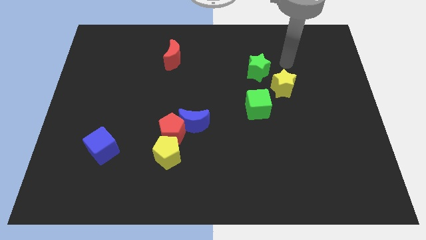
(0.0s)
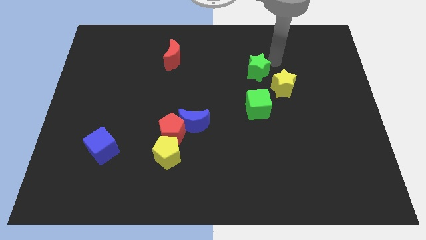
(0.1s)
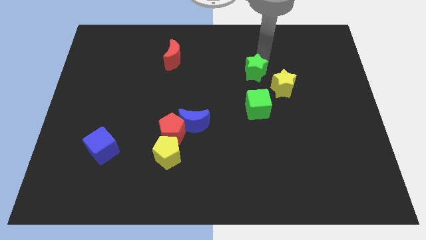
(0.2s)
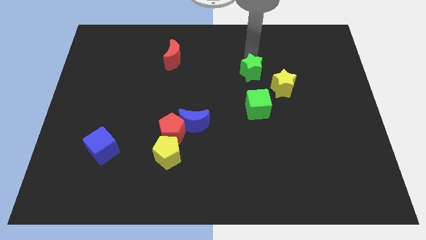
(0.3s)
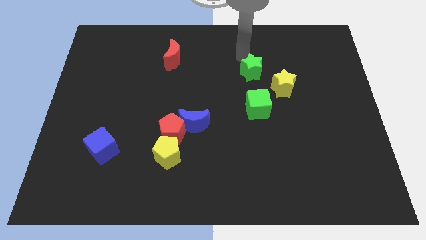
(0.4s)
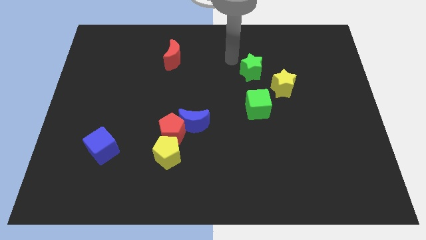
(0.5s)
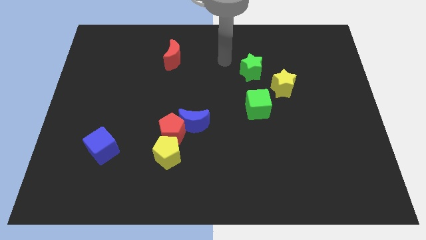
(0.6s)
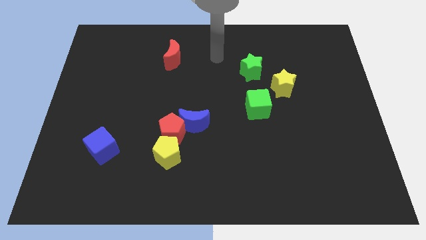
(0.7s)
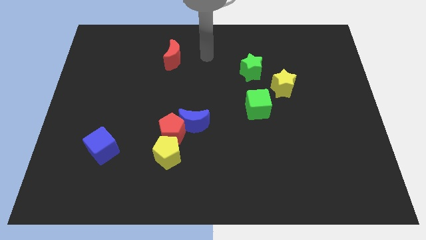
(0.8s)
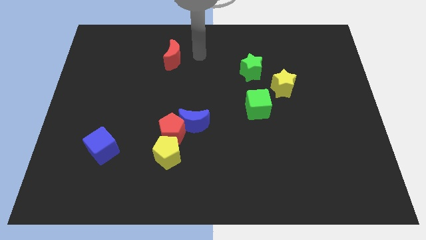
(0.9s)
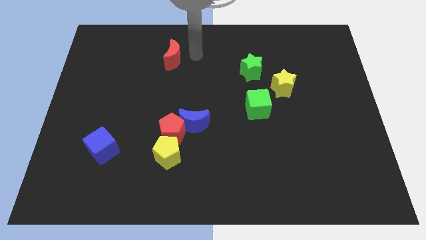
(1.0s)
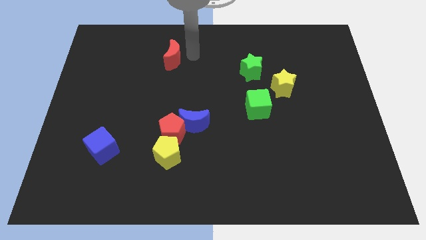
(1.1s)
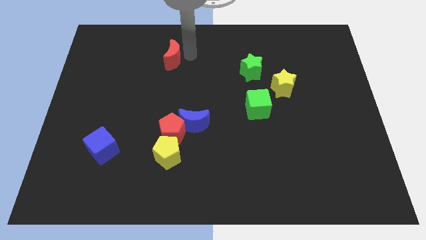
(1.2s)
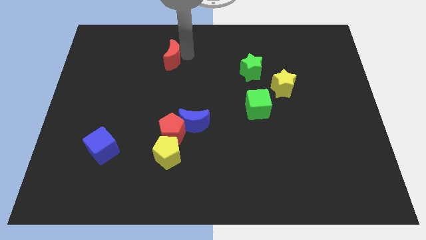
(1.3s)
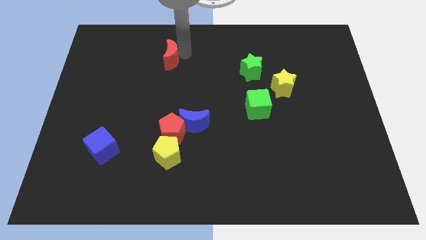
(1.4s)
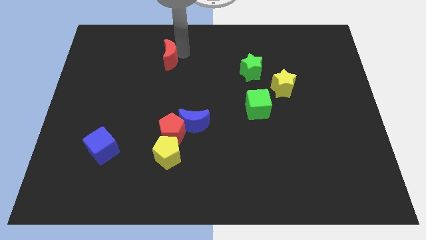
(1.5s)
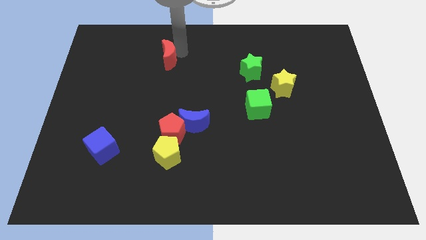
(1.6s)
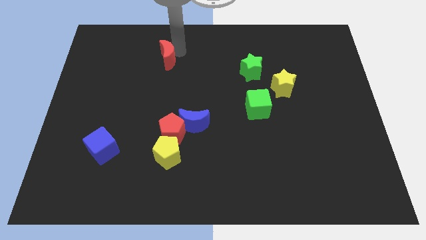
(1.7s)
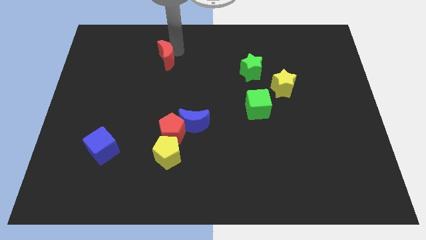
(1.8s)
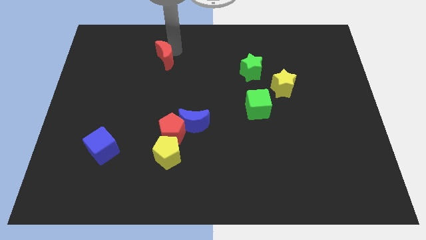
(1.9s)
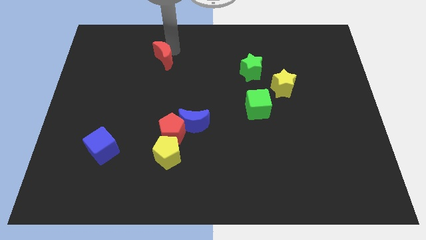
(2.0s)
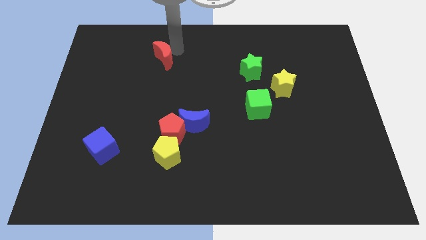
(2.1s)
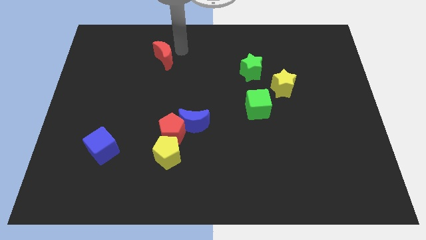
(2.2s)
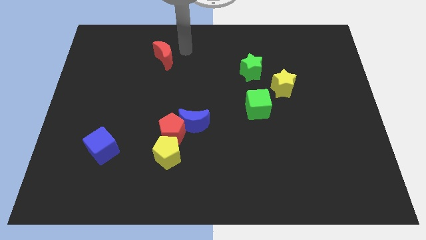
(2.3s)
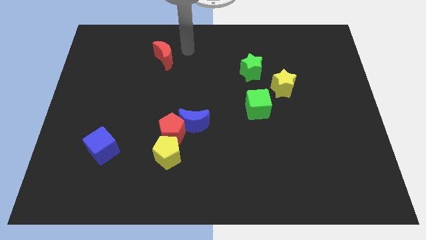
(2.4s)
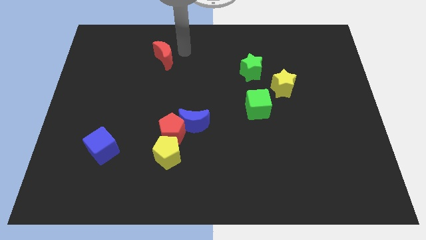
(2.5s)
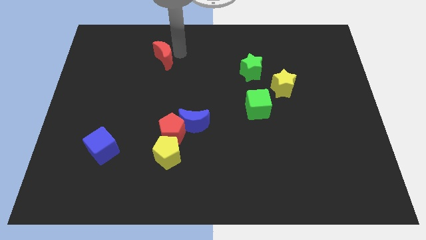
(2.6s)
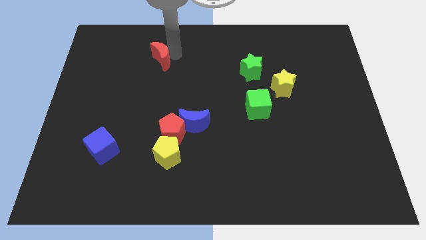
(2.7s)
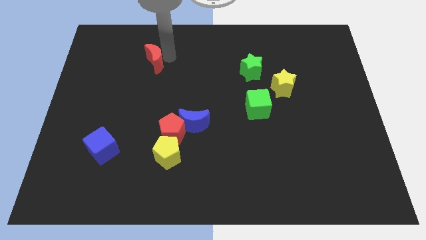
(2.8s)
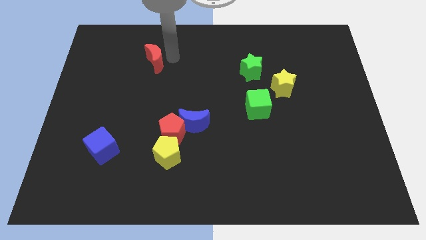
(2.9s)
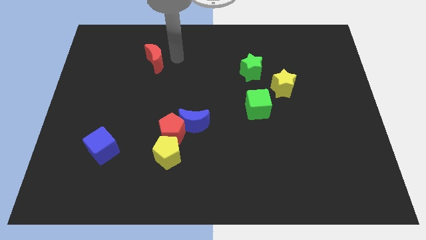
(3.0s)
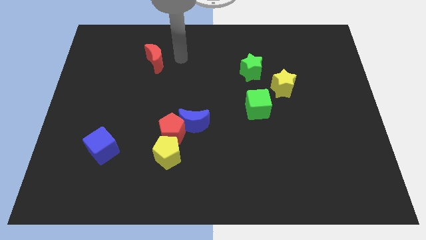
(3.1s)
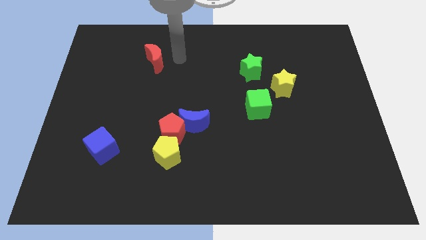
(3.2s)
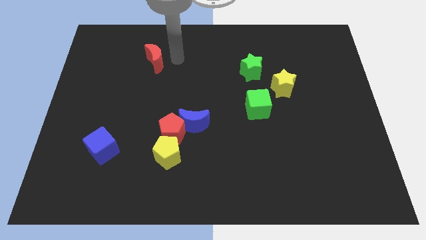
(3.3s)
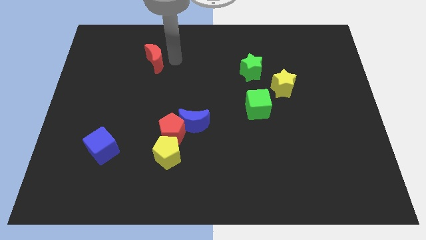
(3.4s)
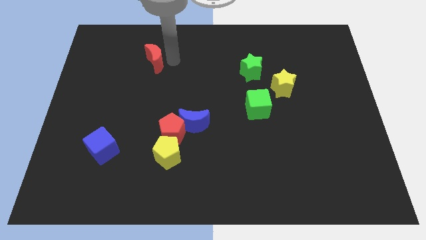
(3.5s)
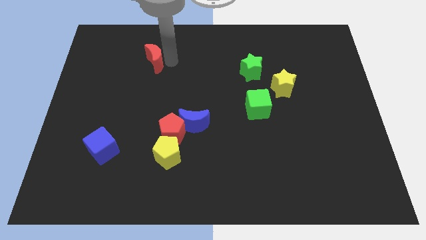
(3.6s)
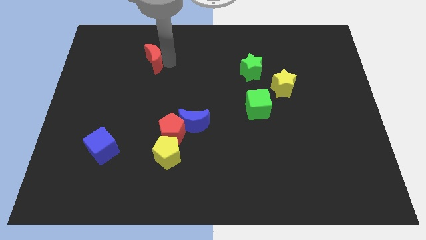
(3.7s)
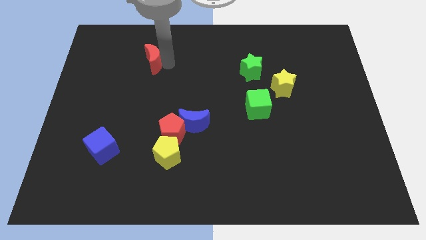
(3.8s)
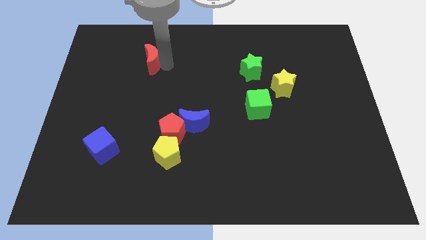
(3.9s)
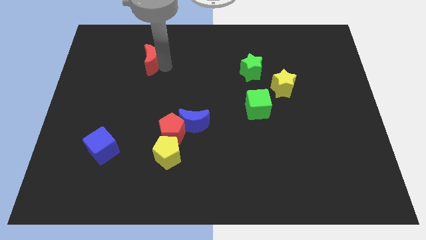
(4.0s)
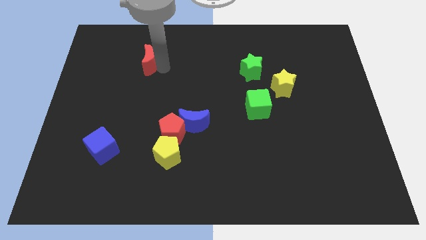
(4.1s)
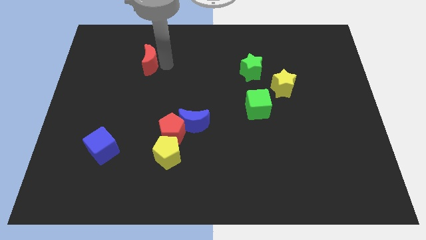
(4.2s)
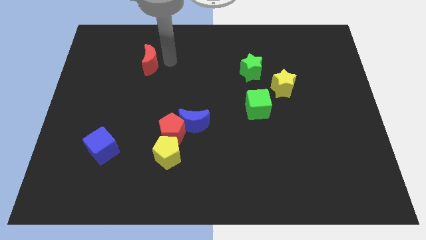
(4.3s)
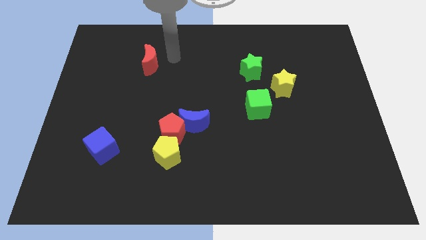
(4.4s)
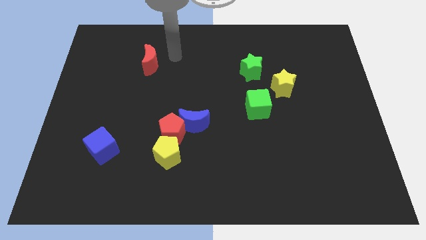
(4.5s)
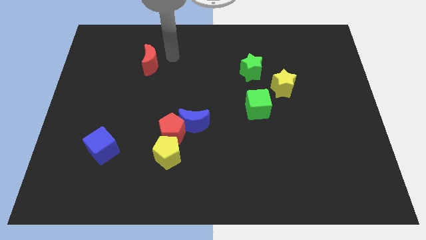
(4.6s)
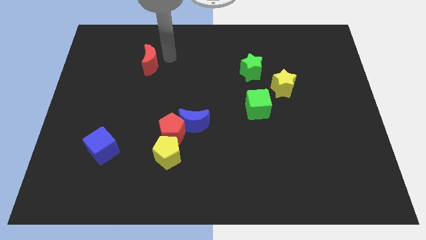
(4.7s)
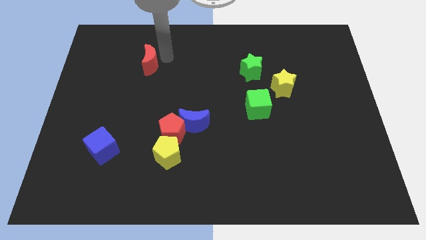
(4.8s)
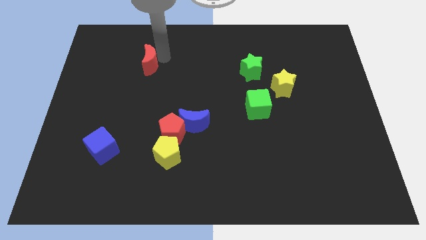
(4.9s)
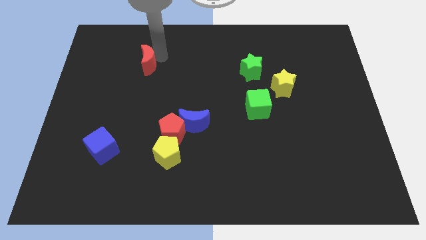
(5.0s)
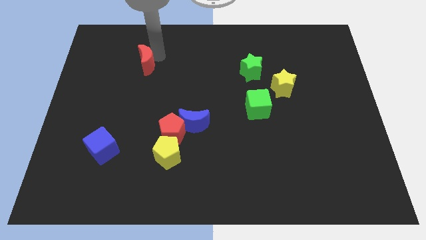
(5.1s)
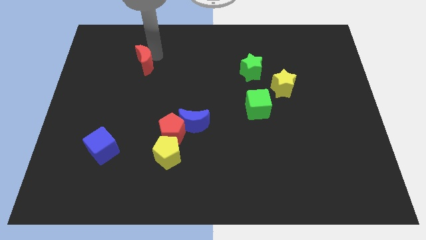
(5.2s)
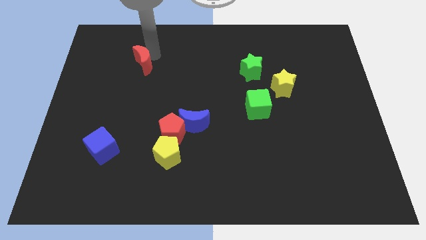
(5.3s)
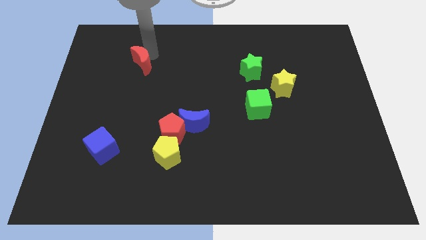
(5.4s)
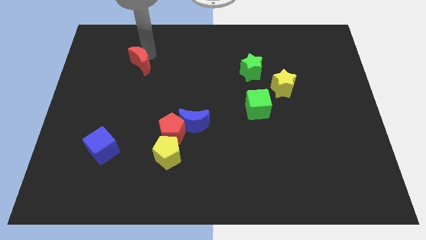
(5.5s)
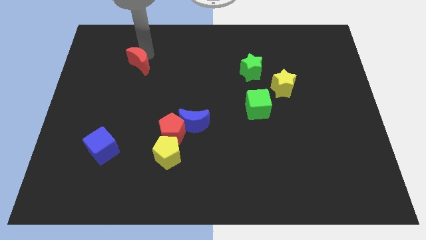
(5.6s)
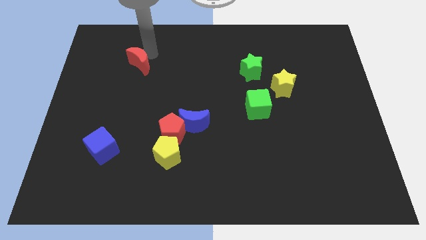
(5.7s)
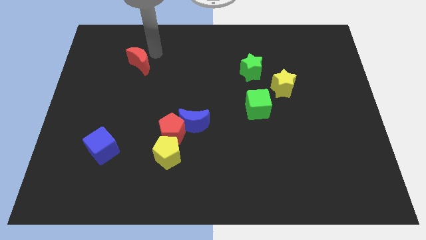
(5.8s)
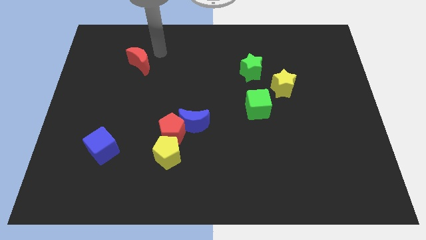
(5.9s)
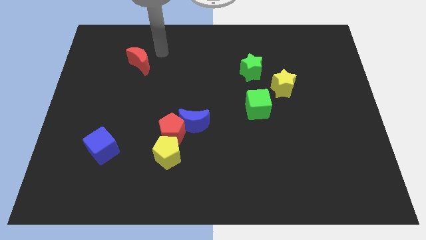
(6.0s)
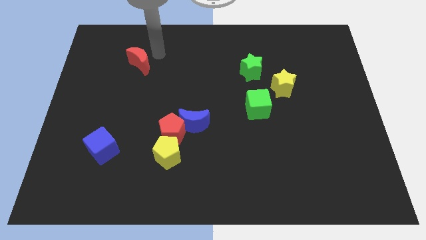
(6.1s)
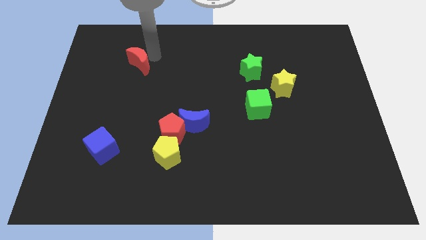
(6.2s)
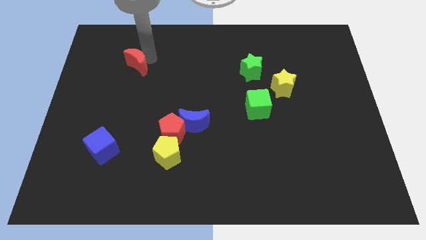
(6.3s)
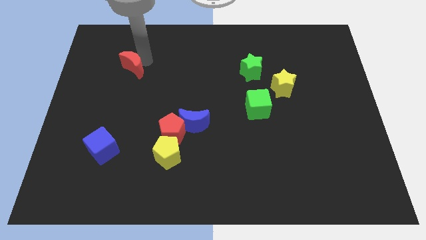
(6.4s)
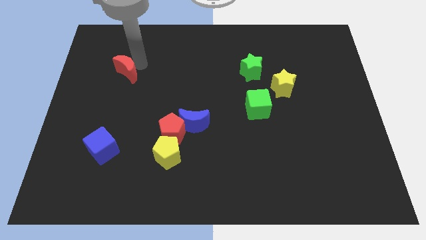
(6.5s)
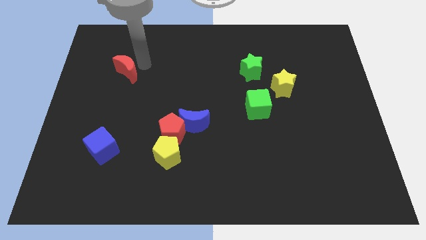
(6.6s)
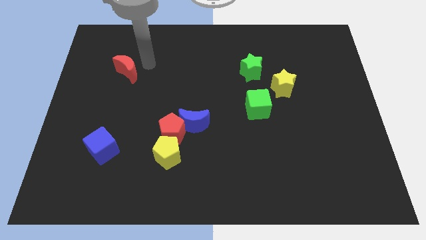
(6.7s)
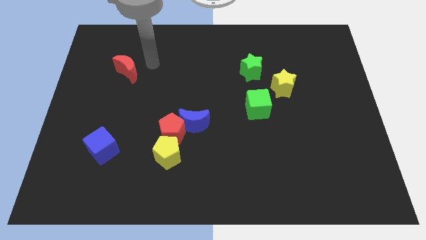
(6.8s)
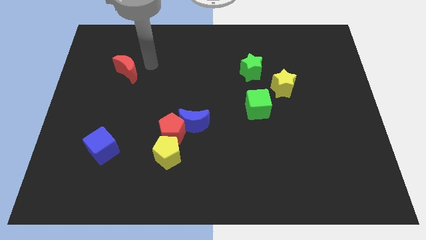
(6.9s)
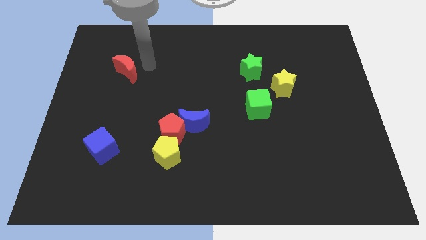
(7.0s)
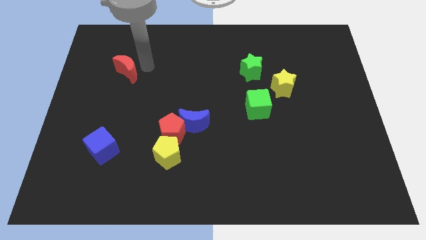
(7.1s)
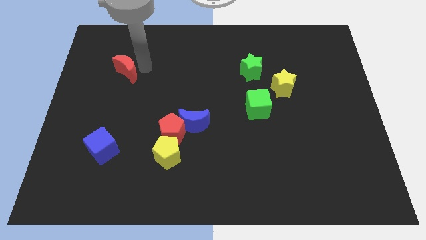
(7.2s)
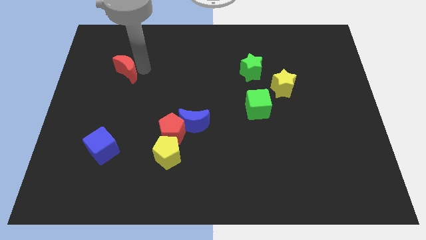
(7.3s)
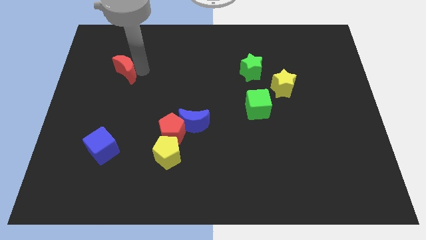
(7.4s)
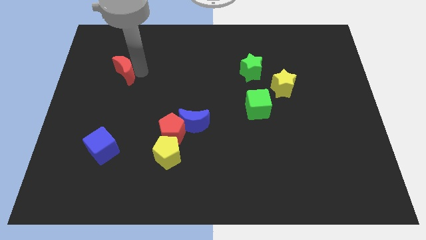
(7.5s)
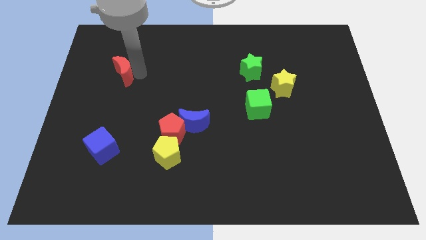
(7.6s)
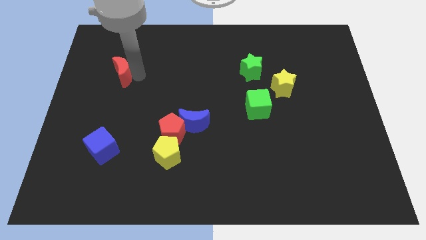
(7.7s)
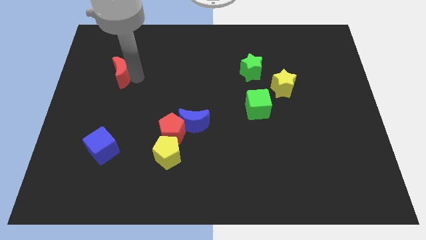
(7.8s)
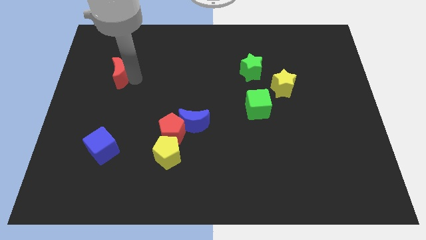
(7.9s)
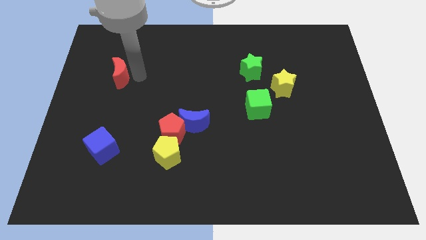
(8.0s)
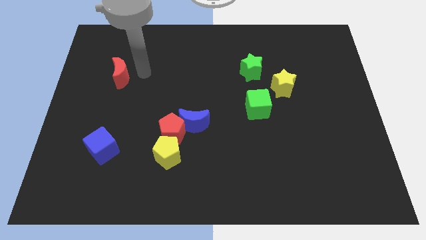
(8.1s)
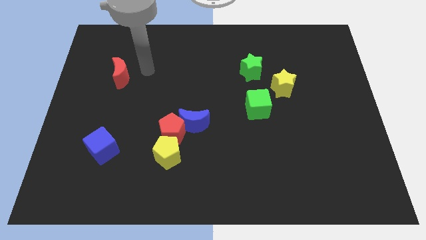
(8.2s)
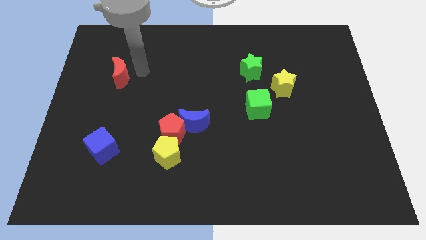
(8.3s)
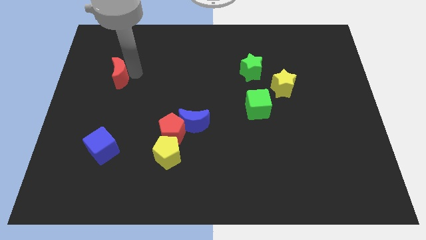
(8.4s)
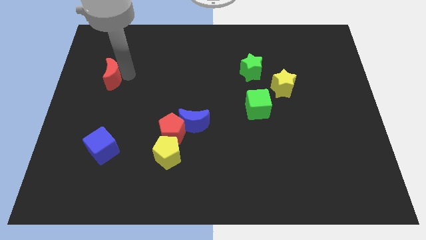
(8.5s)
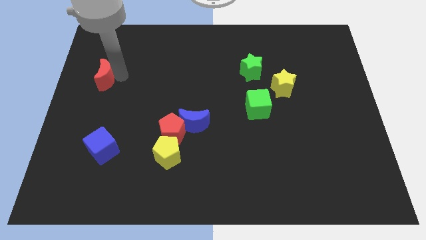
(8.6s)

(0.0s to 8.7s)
move the red moon to the left side of the board
